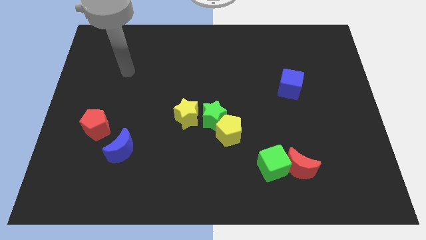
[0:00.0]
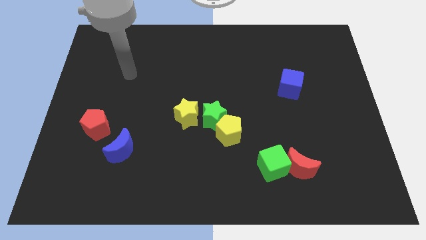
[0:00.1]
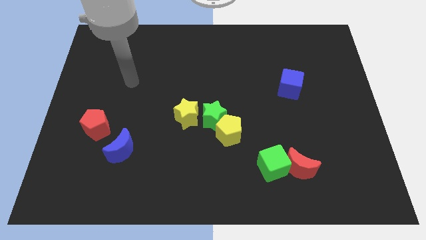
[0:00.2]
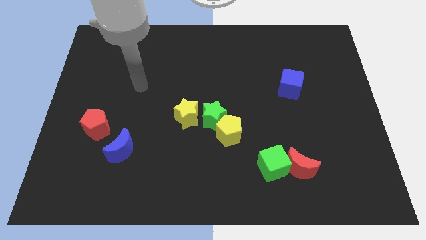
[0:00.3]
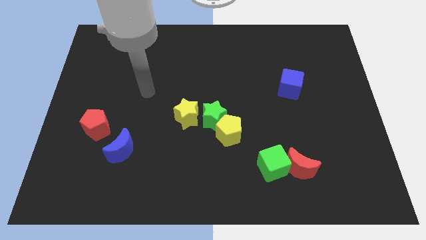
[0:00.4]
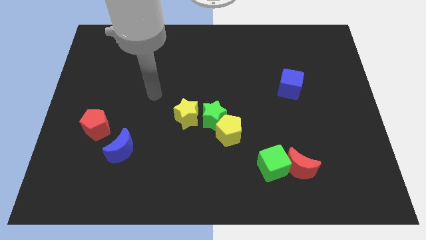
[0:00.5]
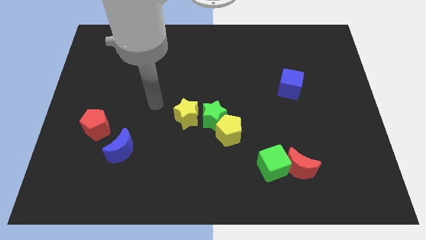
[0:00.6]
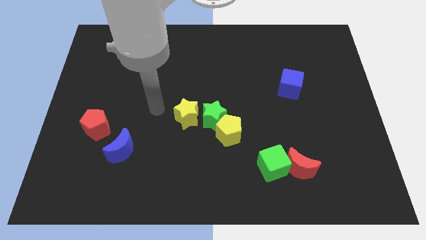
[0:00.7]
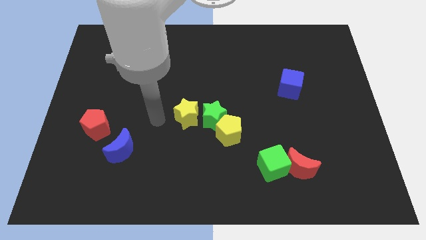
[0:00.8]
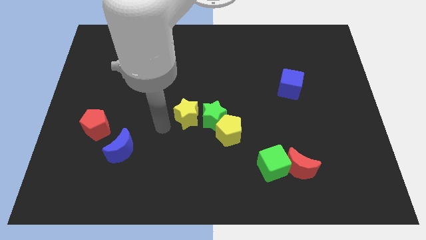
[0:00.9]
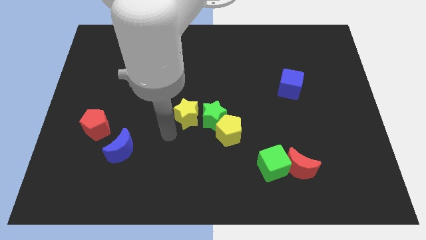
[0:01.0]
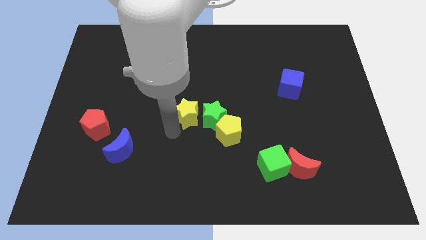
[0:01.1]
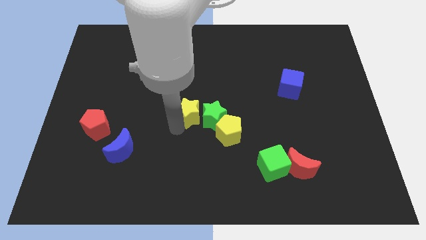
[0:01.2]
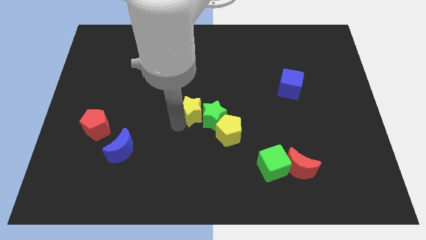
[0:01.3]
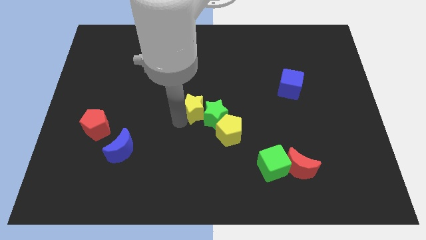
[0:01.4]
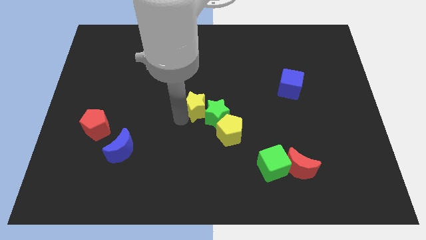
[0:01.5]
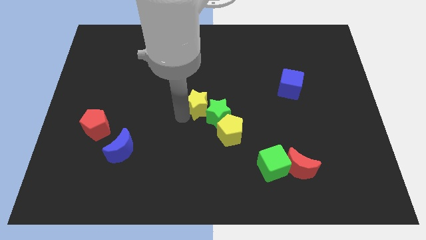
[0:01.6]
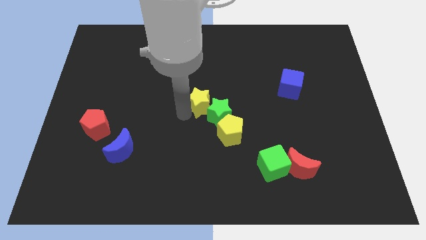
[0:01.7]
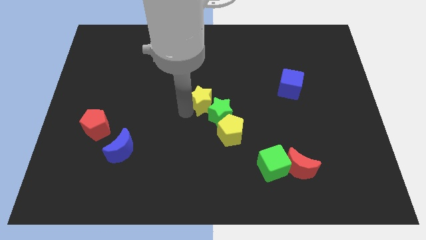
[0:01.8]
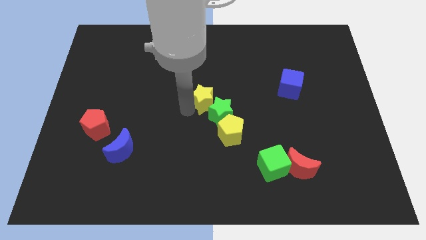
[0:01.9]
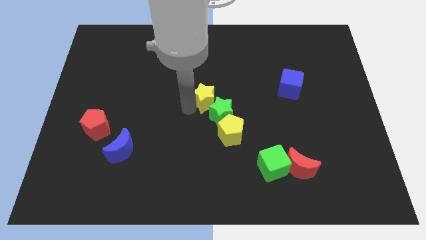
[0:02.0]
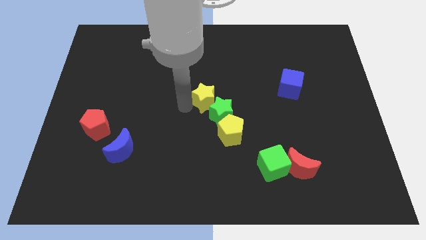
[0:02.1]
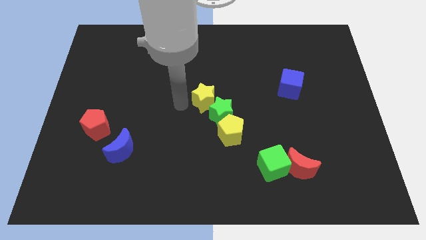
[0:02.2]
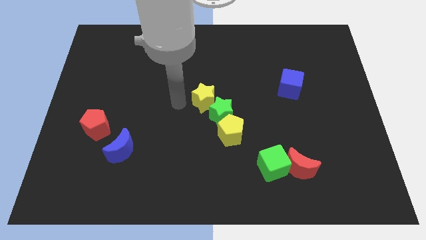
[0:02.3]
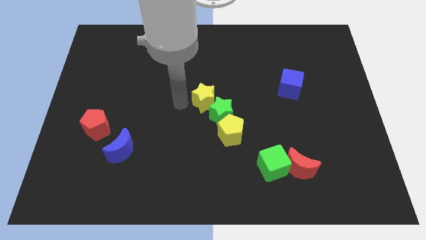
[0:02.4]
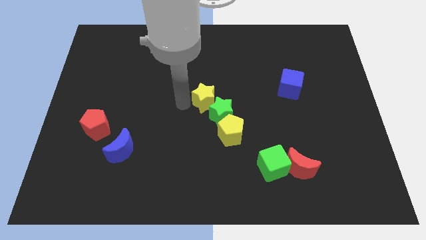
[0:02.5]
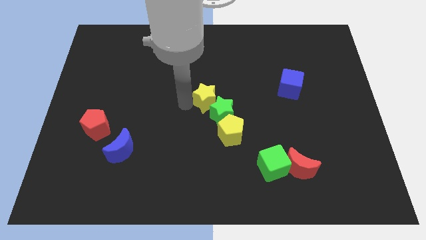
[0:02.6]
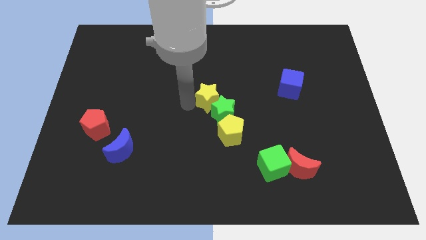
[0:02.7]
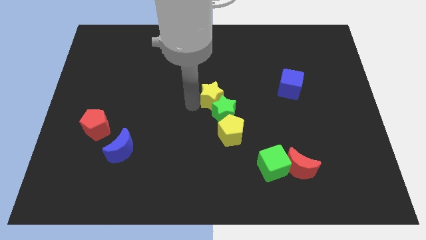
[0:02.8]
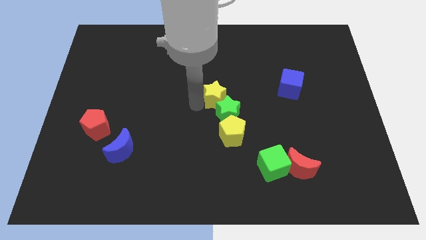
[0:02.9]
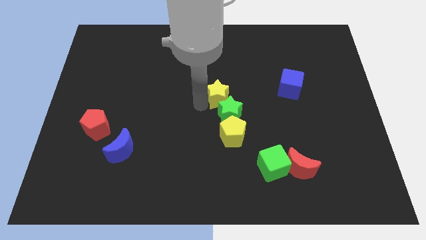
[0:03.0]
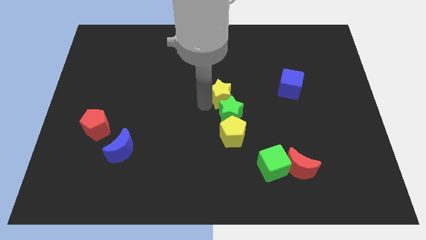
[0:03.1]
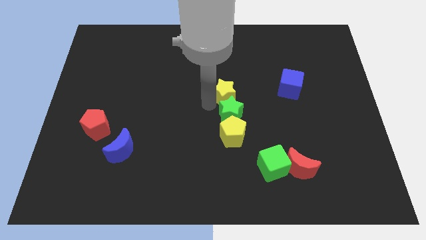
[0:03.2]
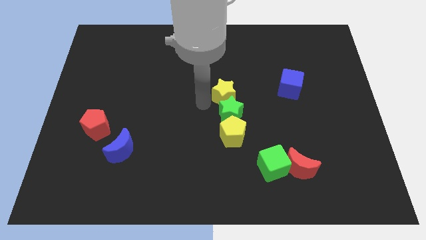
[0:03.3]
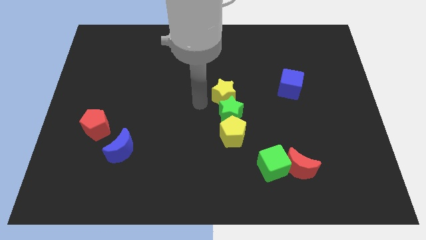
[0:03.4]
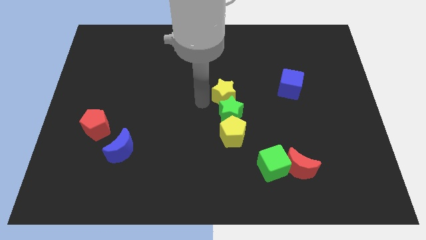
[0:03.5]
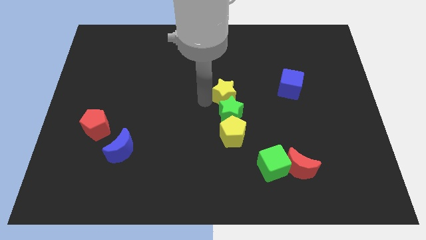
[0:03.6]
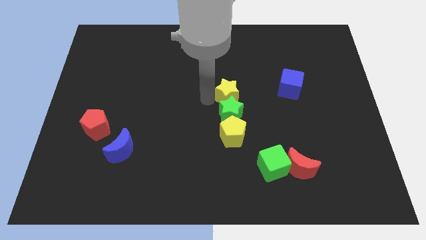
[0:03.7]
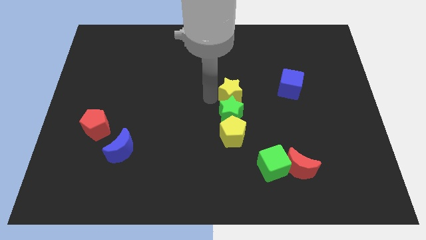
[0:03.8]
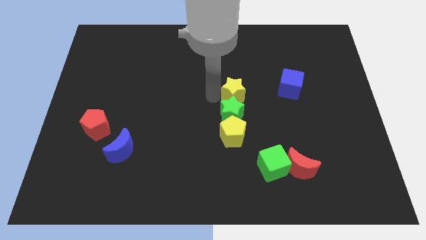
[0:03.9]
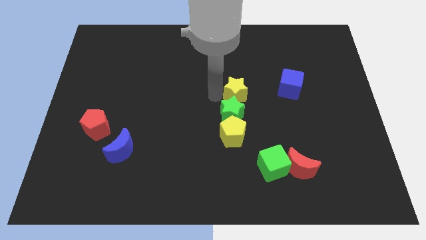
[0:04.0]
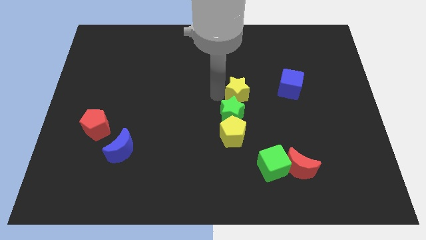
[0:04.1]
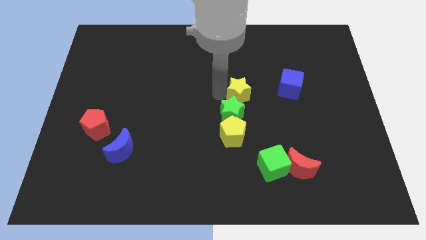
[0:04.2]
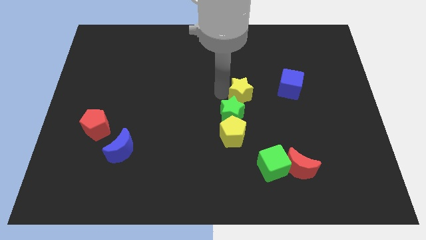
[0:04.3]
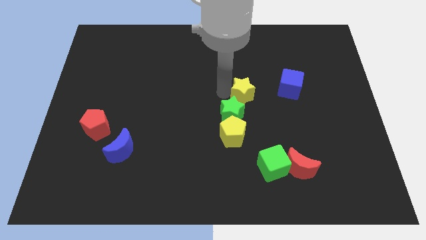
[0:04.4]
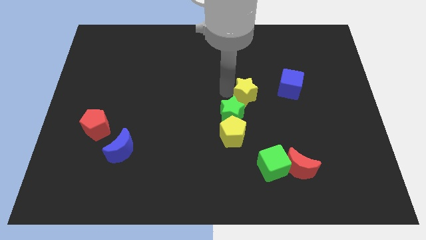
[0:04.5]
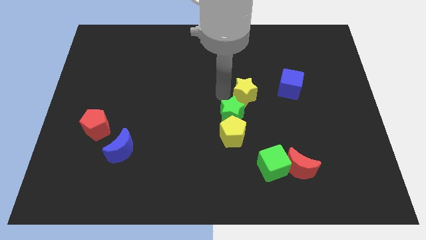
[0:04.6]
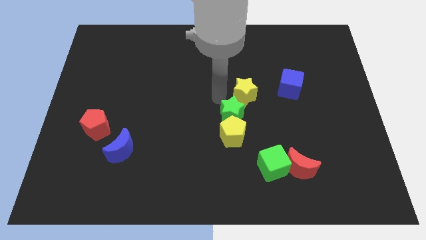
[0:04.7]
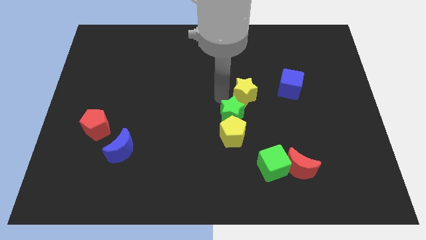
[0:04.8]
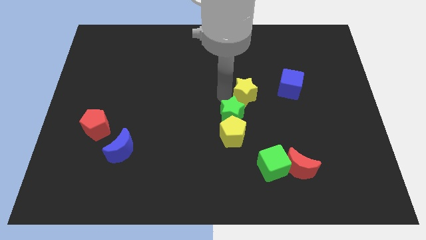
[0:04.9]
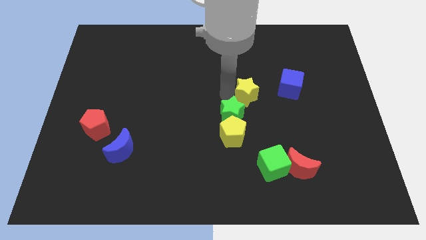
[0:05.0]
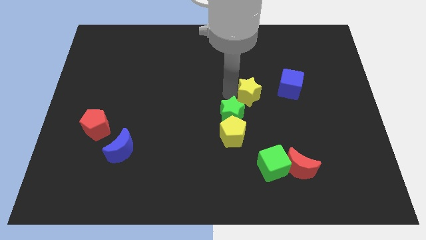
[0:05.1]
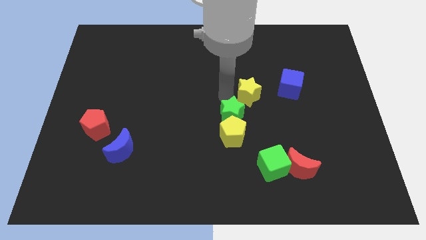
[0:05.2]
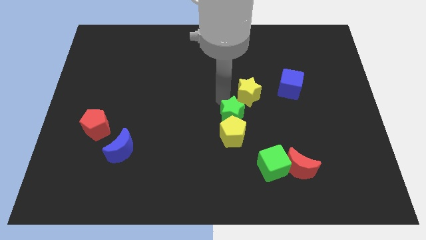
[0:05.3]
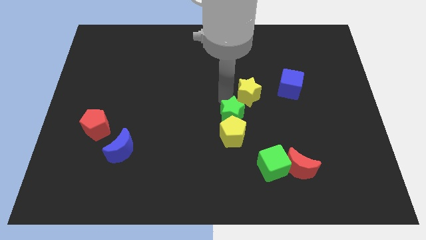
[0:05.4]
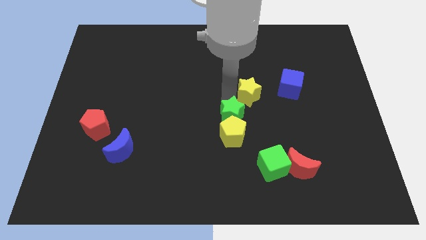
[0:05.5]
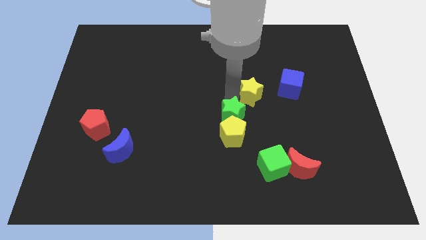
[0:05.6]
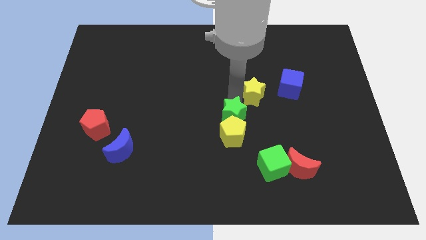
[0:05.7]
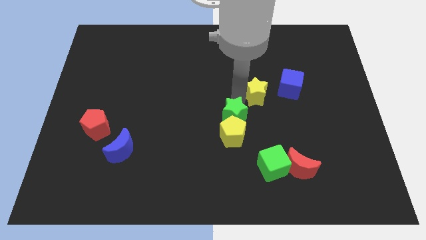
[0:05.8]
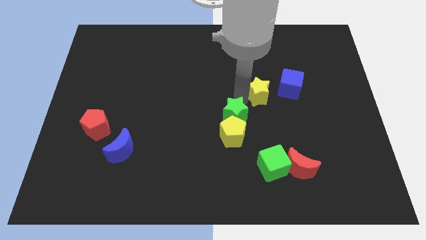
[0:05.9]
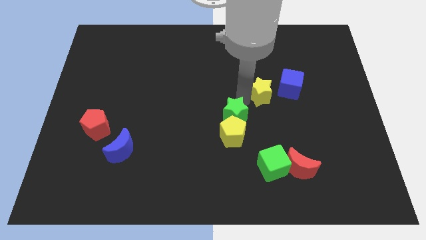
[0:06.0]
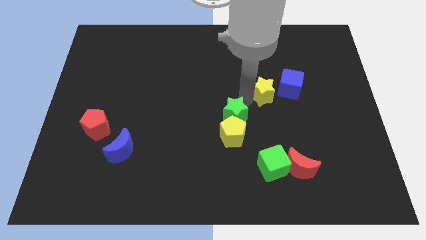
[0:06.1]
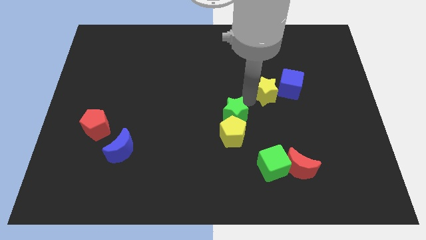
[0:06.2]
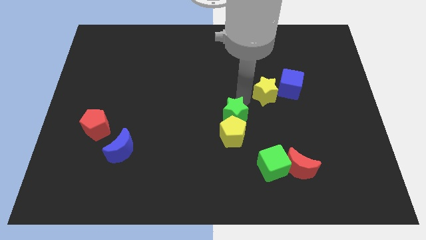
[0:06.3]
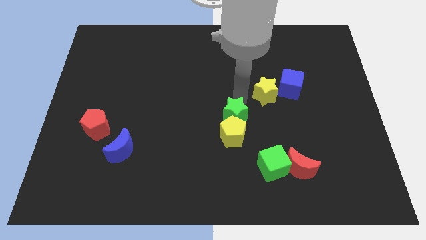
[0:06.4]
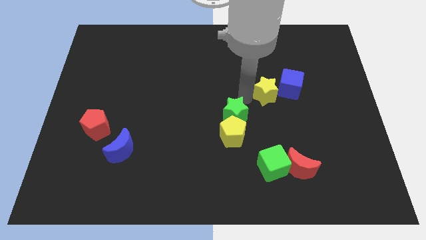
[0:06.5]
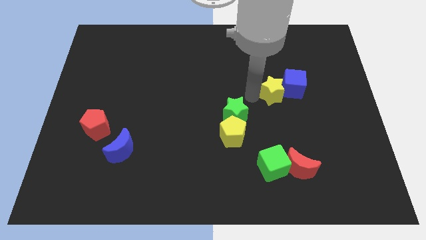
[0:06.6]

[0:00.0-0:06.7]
push the yellow star next to the blue cube

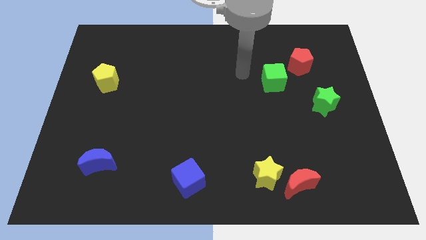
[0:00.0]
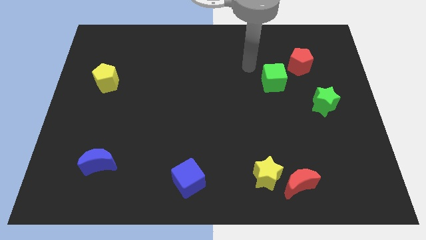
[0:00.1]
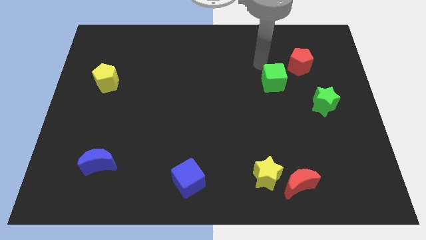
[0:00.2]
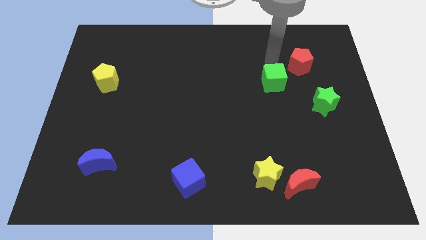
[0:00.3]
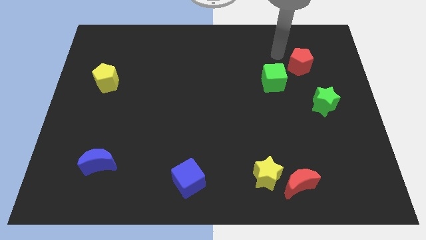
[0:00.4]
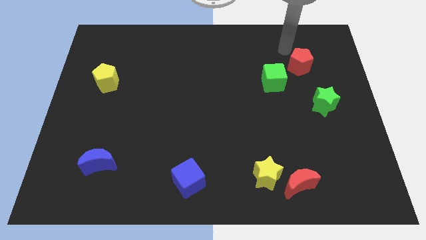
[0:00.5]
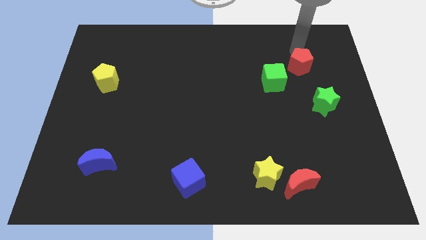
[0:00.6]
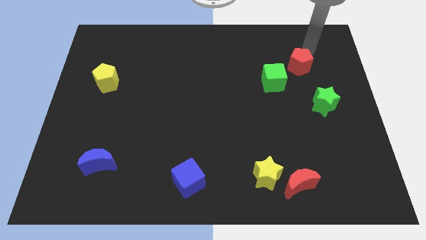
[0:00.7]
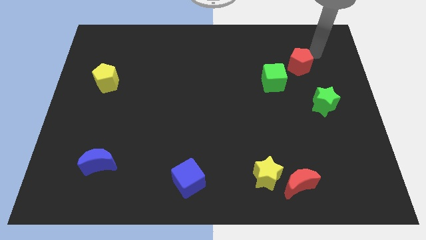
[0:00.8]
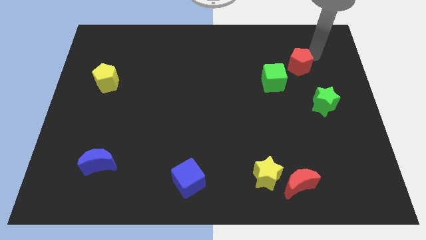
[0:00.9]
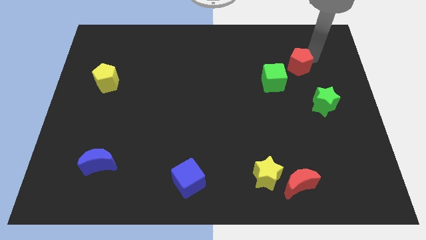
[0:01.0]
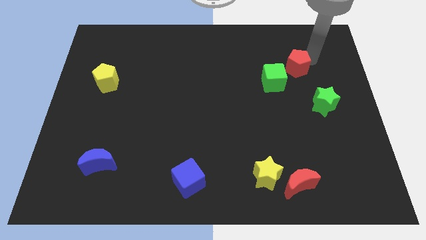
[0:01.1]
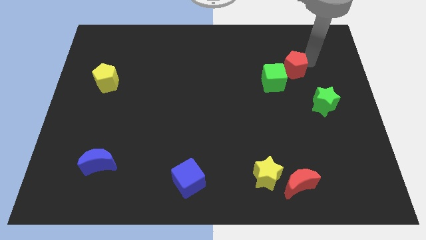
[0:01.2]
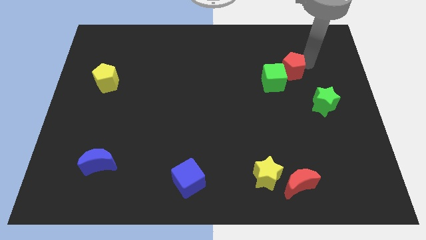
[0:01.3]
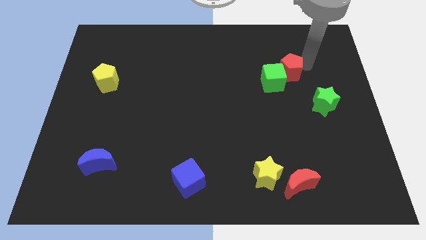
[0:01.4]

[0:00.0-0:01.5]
push the red pentagon to the green cube
